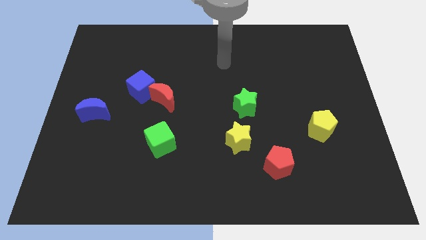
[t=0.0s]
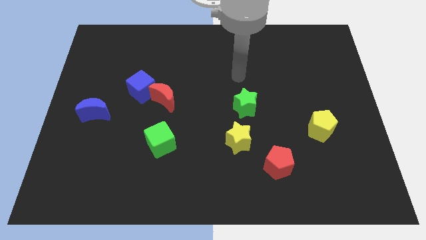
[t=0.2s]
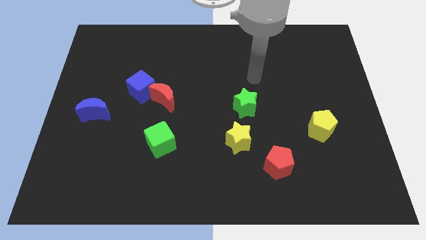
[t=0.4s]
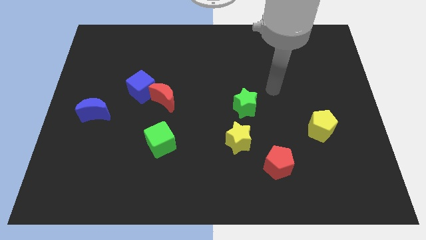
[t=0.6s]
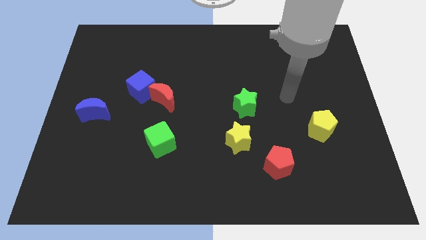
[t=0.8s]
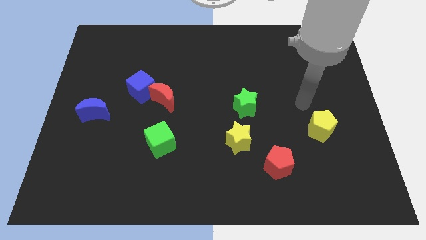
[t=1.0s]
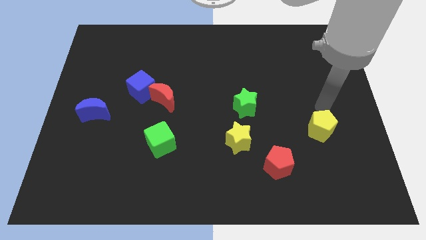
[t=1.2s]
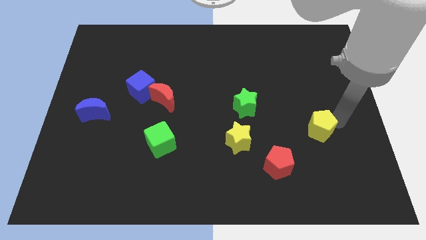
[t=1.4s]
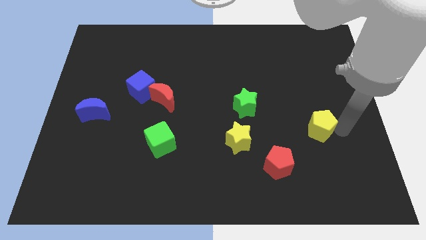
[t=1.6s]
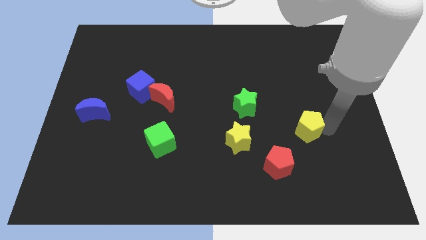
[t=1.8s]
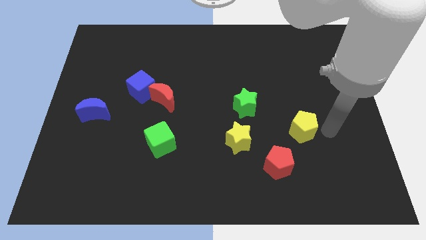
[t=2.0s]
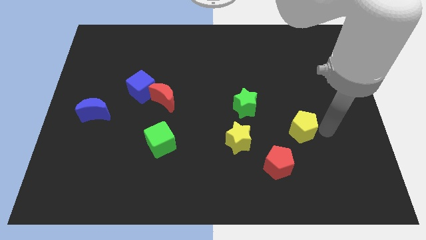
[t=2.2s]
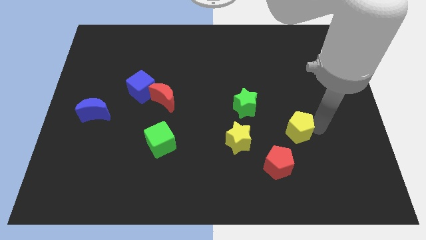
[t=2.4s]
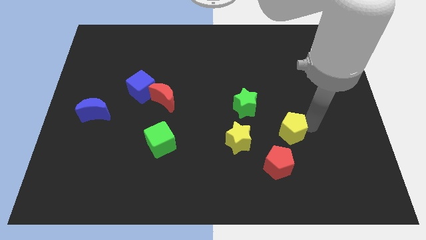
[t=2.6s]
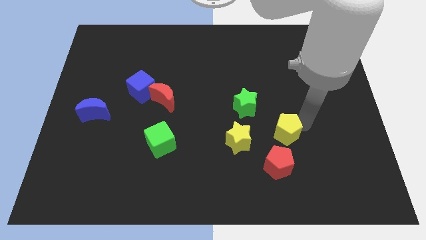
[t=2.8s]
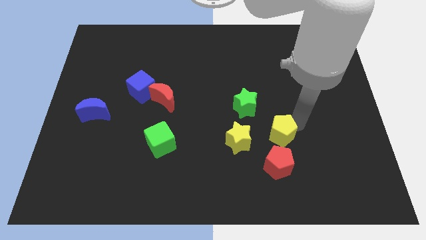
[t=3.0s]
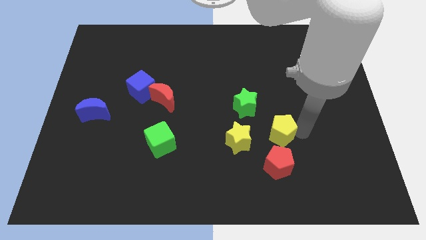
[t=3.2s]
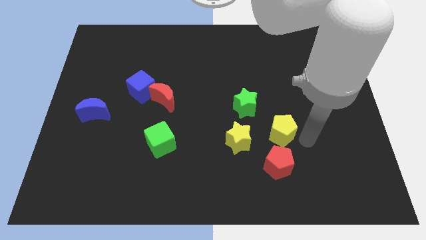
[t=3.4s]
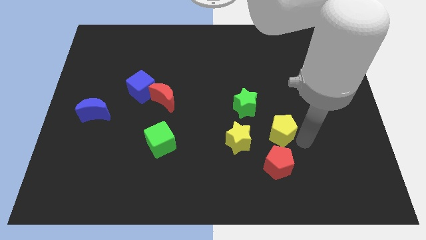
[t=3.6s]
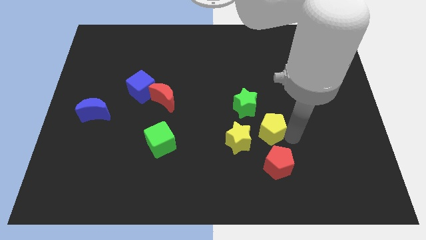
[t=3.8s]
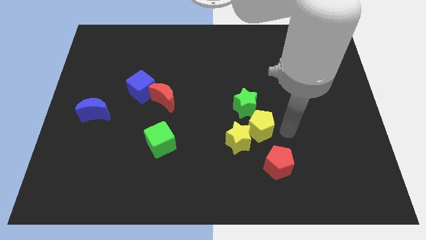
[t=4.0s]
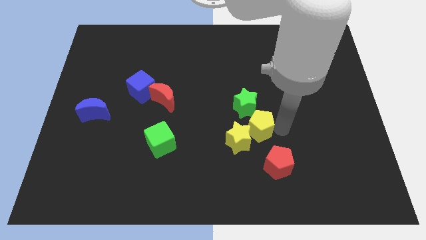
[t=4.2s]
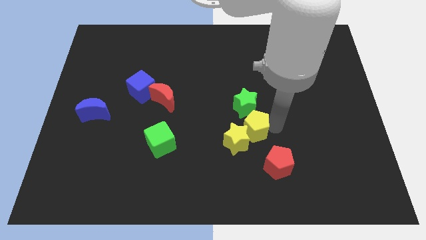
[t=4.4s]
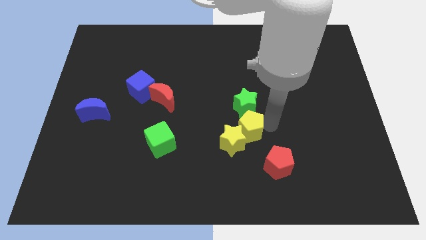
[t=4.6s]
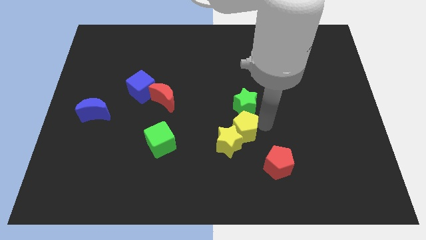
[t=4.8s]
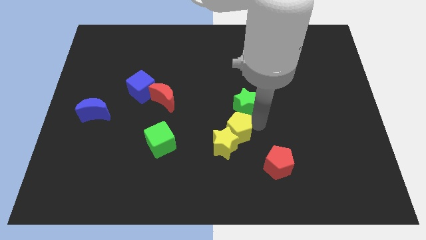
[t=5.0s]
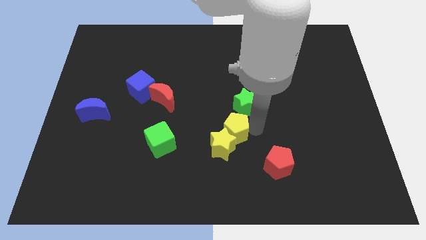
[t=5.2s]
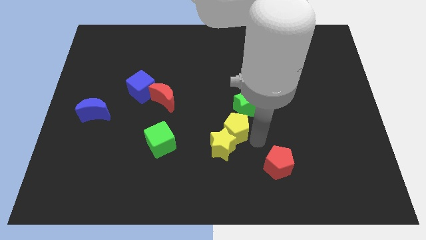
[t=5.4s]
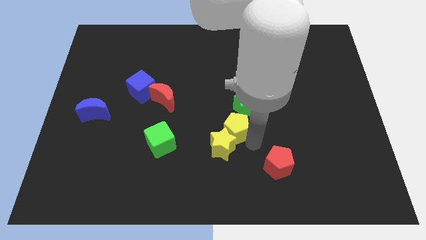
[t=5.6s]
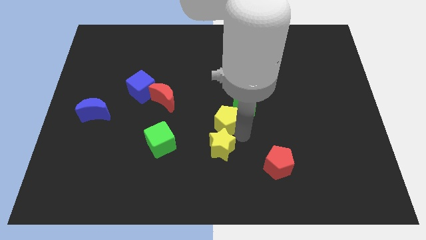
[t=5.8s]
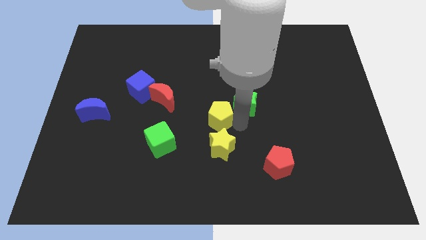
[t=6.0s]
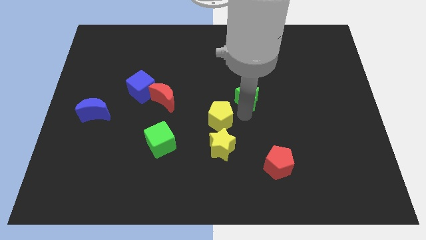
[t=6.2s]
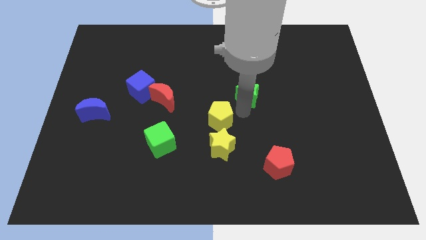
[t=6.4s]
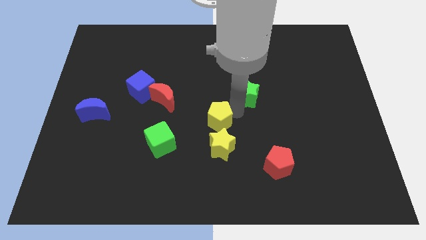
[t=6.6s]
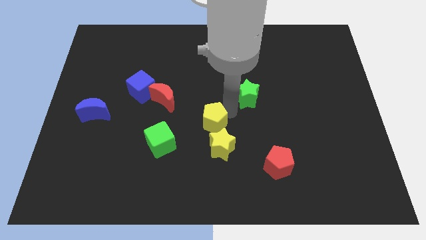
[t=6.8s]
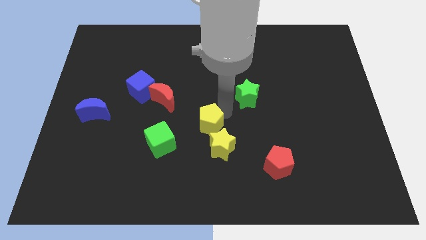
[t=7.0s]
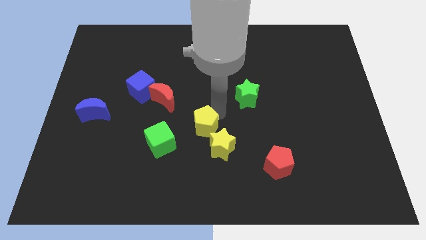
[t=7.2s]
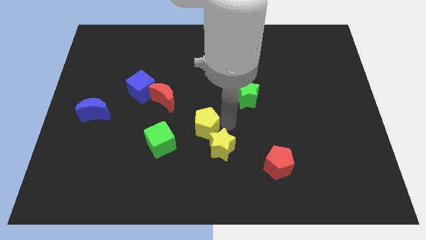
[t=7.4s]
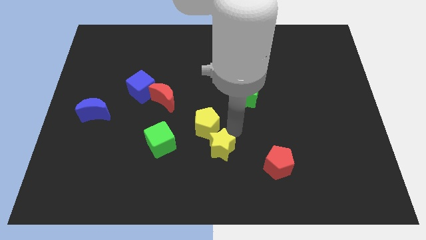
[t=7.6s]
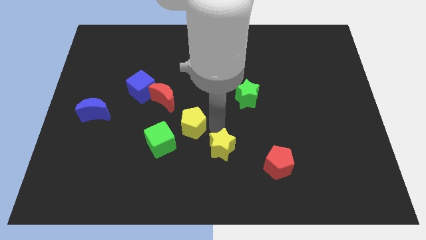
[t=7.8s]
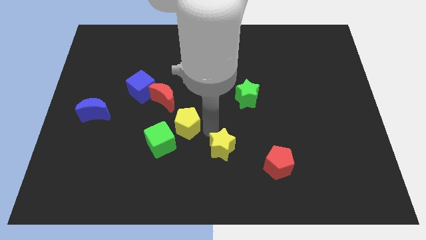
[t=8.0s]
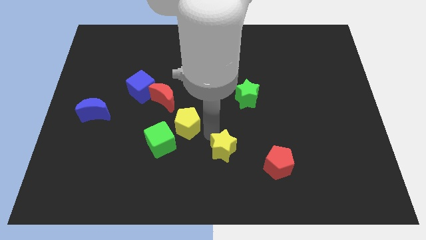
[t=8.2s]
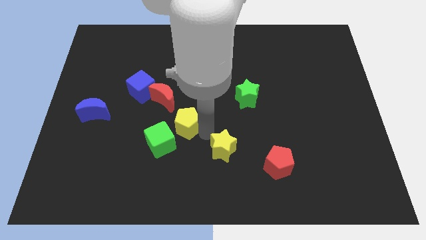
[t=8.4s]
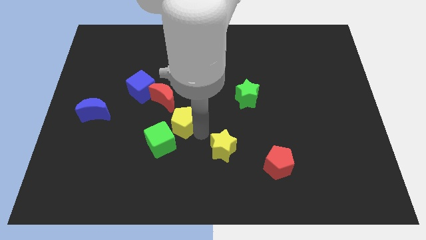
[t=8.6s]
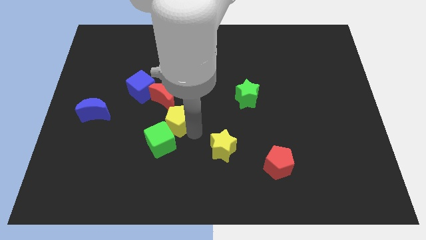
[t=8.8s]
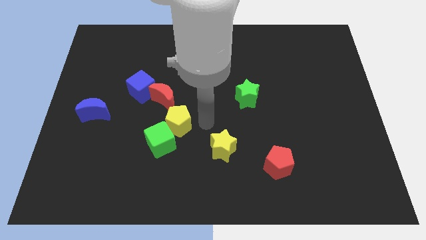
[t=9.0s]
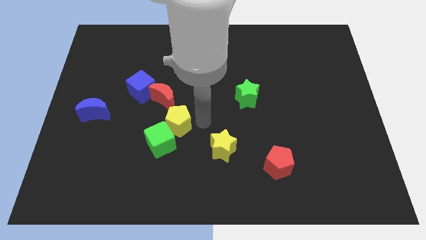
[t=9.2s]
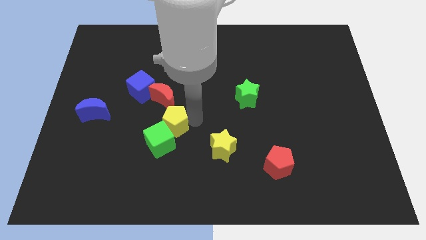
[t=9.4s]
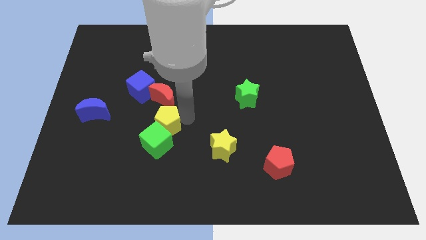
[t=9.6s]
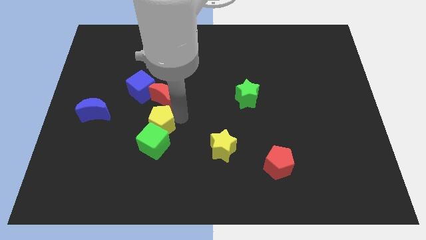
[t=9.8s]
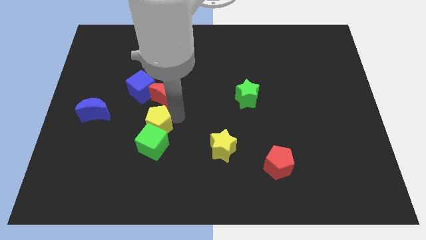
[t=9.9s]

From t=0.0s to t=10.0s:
slide the yellow pentagon below the blue cube

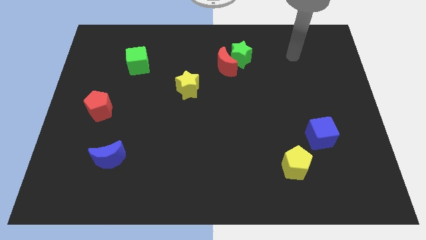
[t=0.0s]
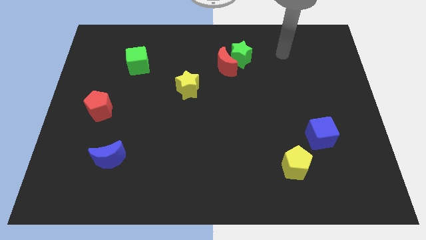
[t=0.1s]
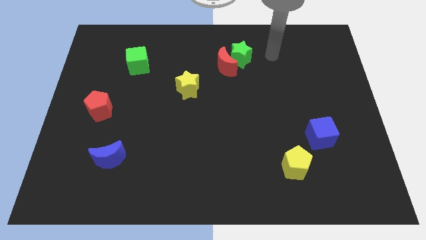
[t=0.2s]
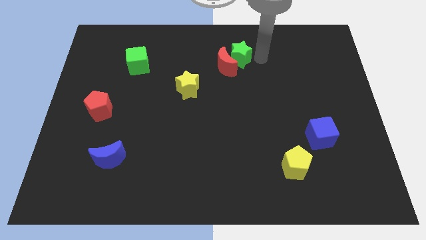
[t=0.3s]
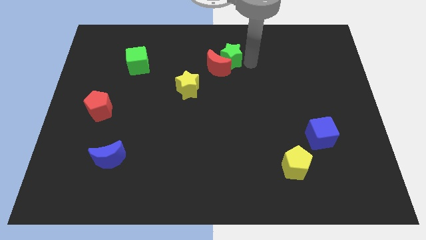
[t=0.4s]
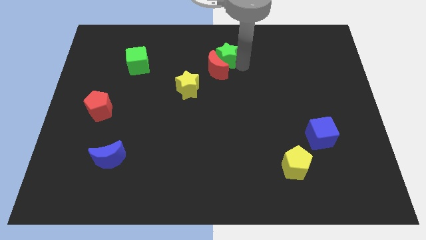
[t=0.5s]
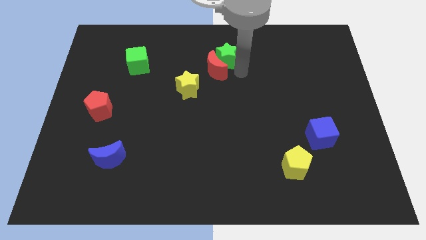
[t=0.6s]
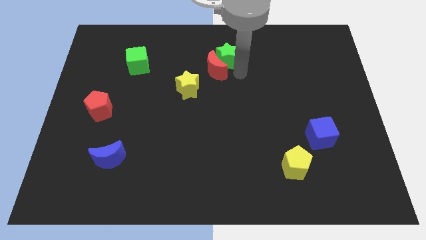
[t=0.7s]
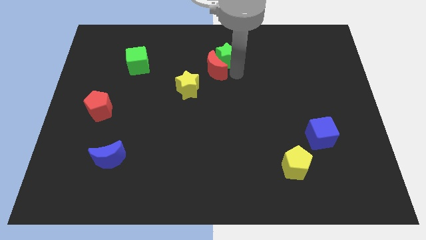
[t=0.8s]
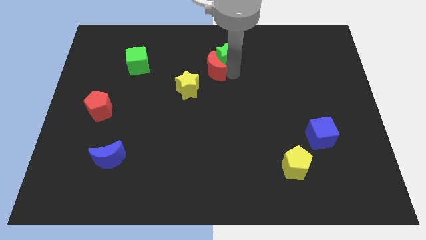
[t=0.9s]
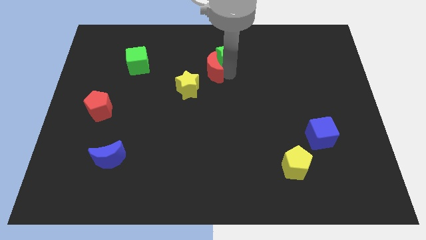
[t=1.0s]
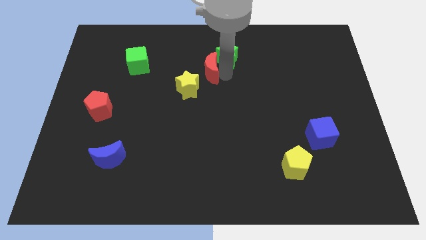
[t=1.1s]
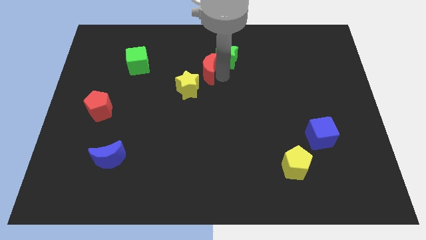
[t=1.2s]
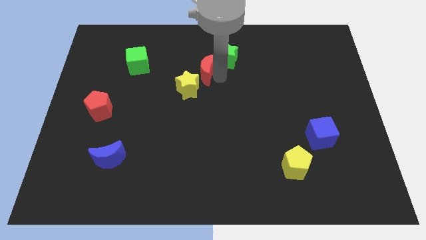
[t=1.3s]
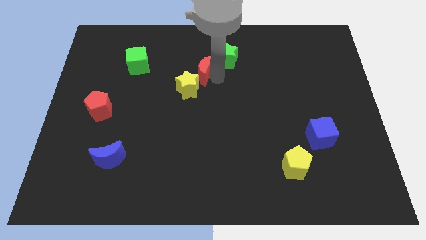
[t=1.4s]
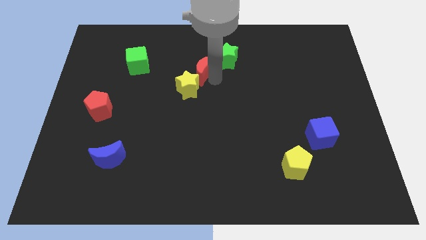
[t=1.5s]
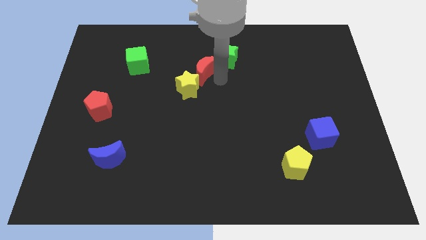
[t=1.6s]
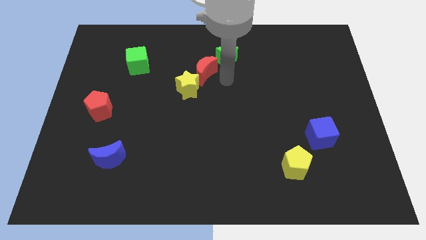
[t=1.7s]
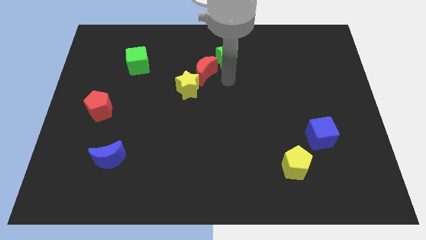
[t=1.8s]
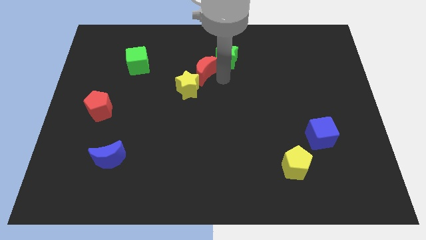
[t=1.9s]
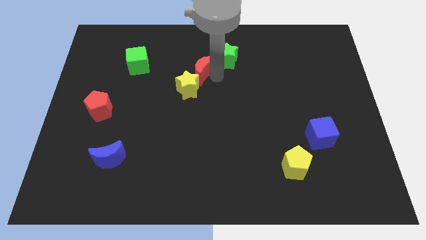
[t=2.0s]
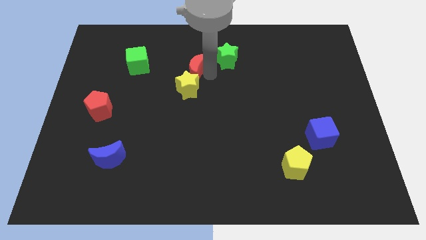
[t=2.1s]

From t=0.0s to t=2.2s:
push the red moon to the right of the green cube
